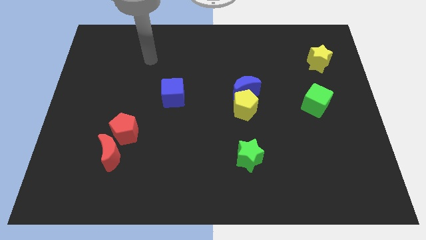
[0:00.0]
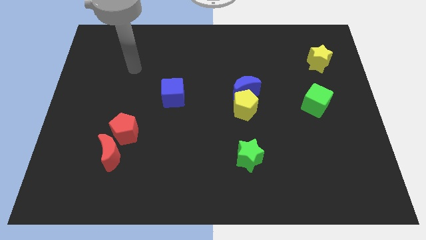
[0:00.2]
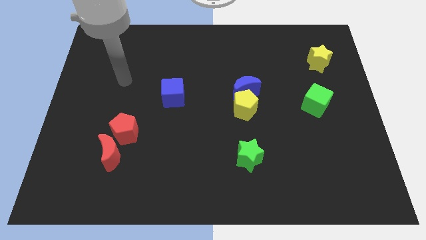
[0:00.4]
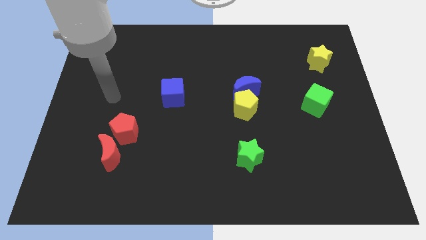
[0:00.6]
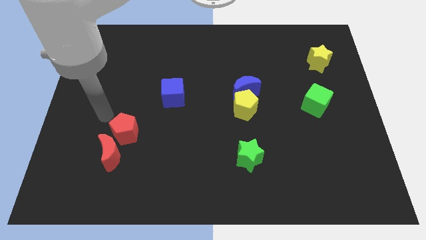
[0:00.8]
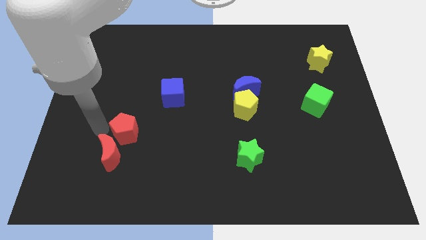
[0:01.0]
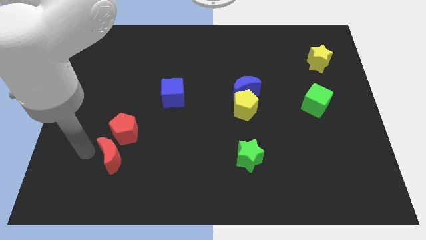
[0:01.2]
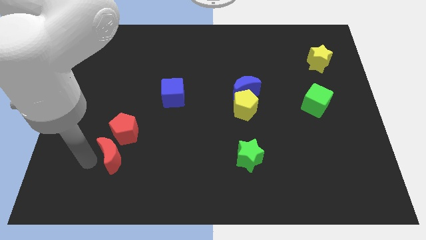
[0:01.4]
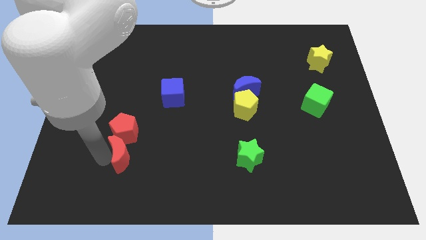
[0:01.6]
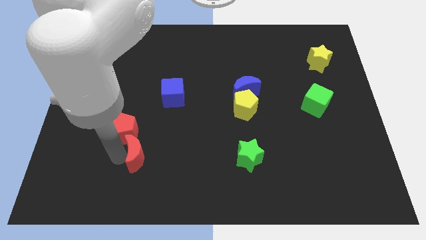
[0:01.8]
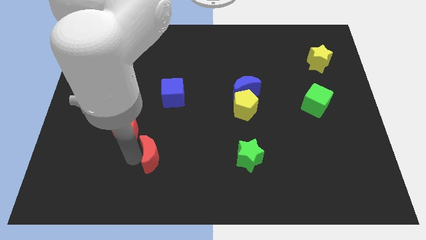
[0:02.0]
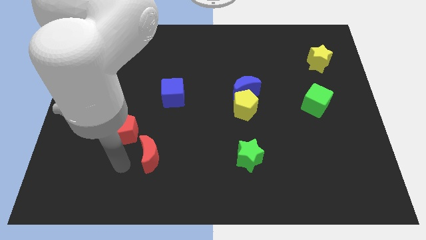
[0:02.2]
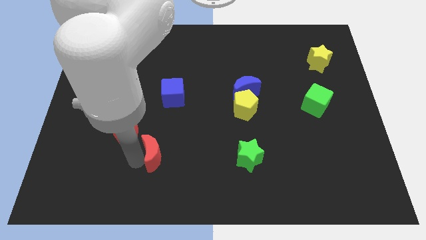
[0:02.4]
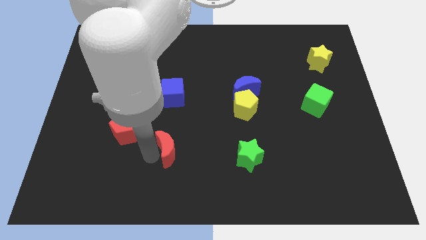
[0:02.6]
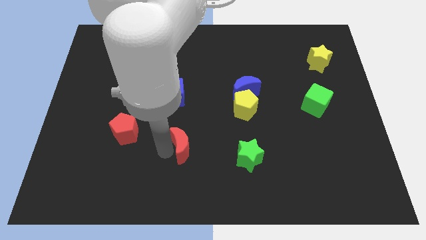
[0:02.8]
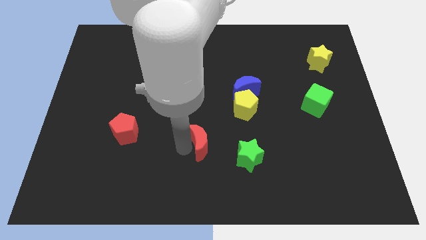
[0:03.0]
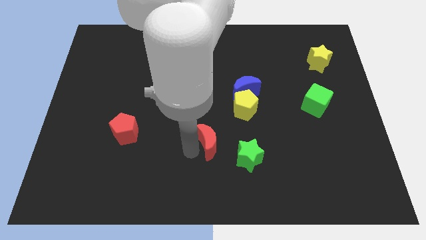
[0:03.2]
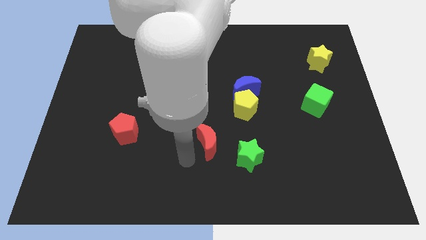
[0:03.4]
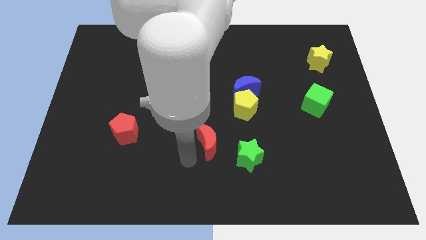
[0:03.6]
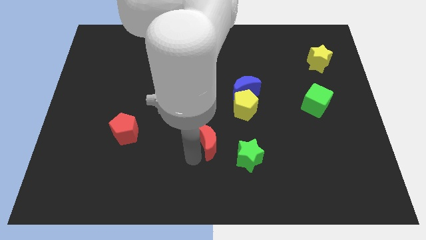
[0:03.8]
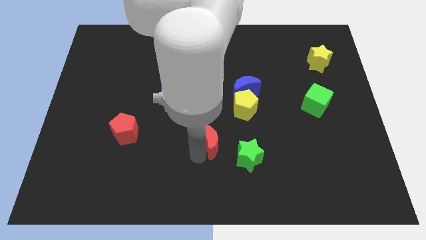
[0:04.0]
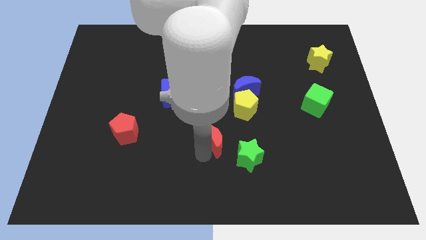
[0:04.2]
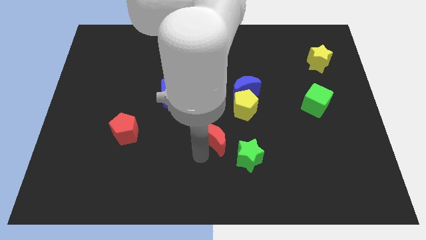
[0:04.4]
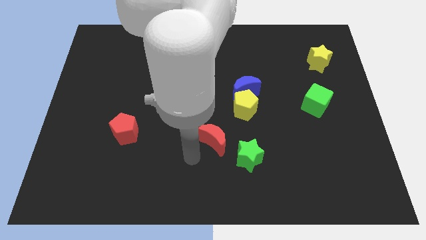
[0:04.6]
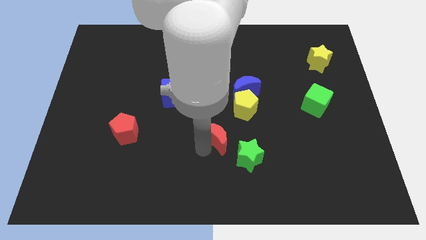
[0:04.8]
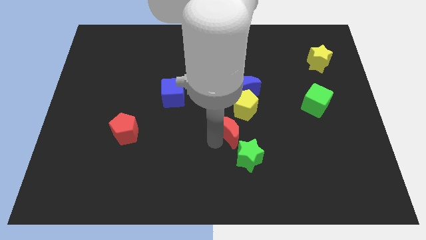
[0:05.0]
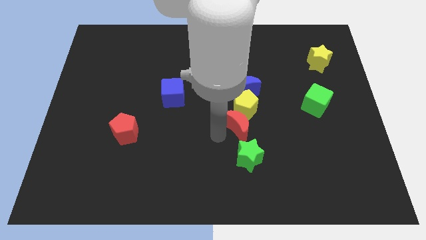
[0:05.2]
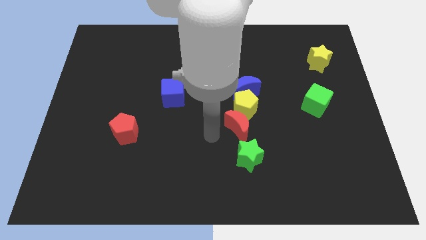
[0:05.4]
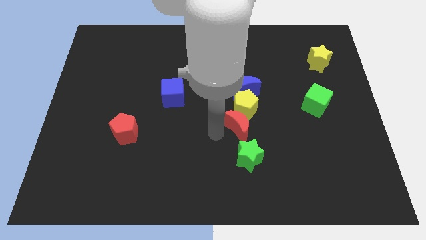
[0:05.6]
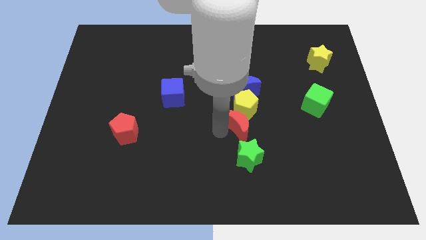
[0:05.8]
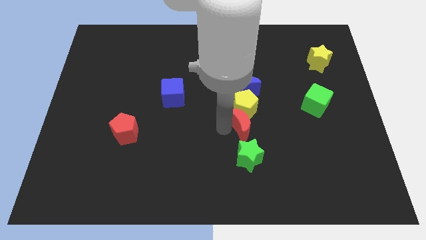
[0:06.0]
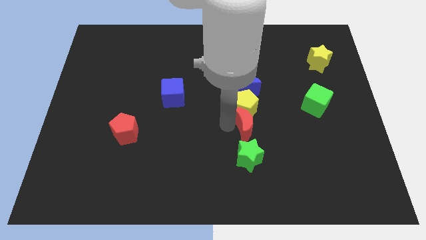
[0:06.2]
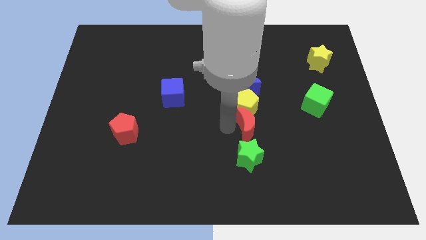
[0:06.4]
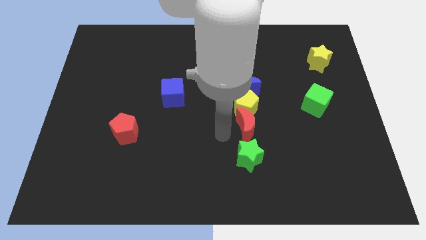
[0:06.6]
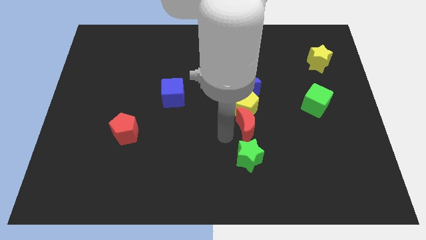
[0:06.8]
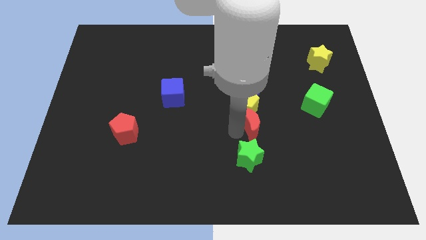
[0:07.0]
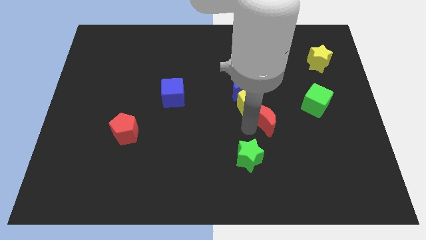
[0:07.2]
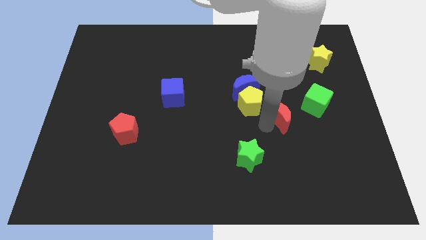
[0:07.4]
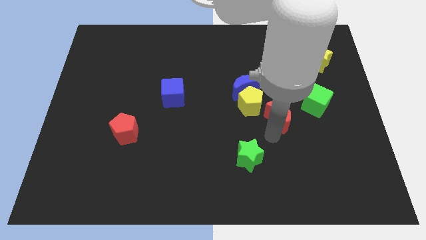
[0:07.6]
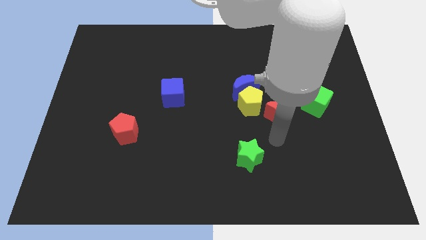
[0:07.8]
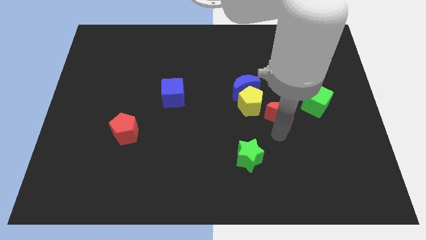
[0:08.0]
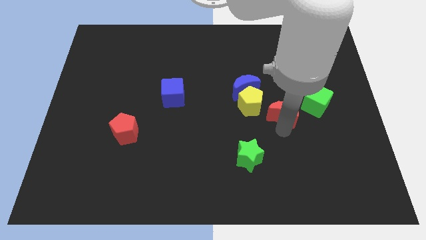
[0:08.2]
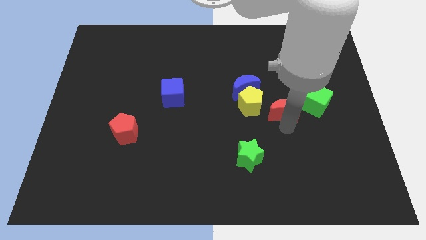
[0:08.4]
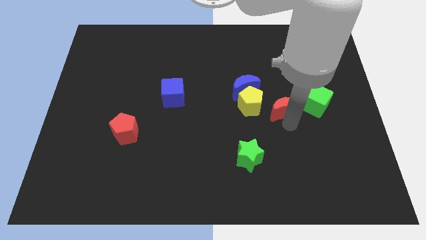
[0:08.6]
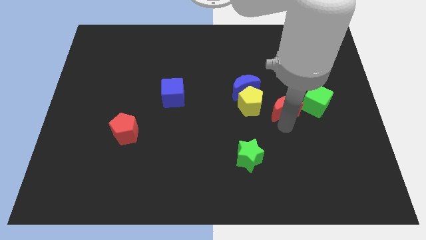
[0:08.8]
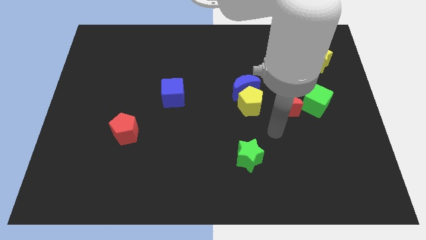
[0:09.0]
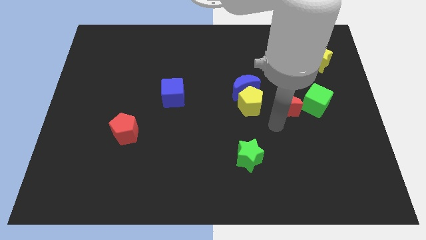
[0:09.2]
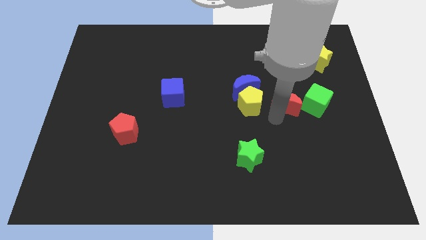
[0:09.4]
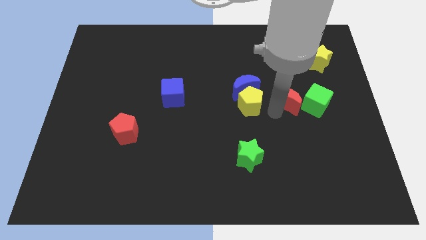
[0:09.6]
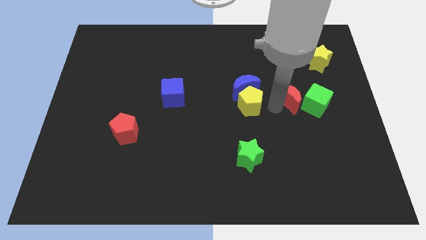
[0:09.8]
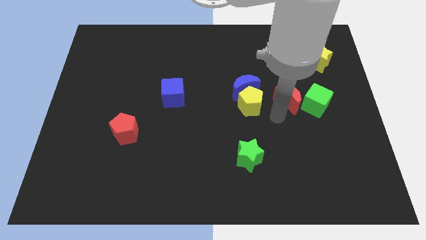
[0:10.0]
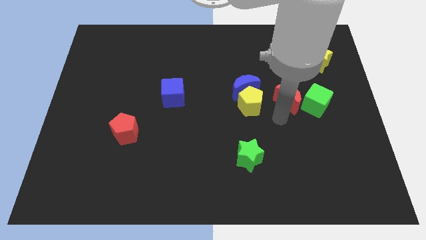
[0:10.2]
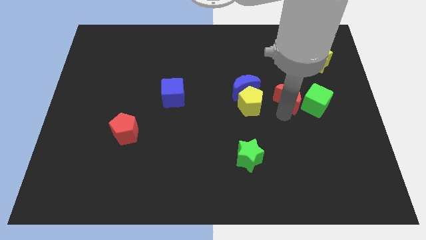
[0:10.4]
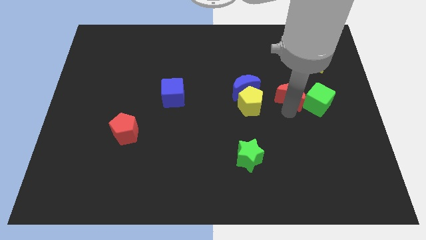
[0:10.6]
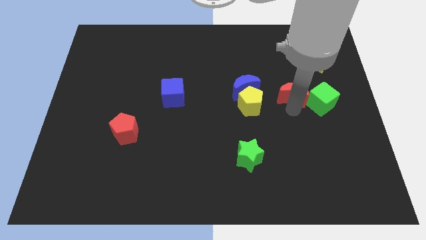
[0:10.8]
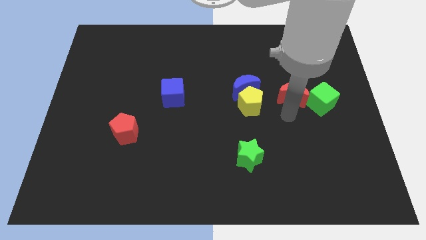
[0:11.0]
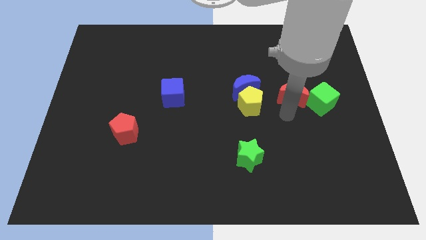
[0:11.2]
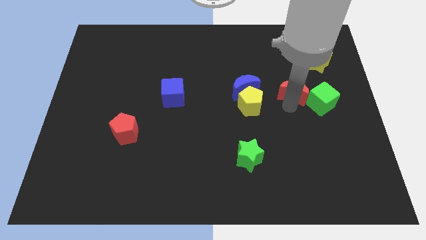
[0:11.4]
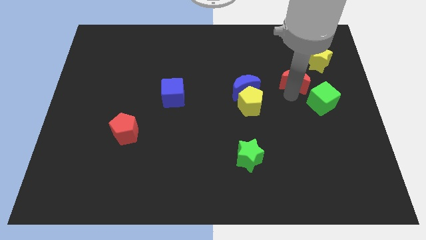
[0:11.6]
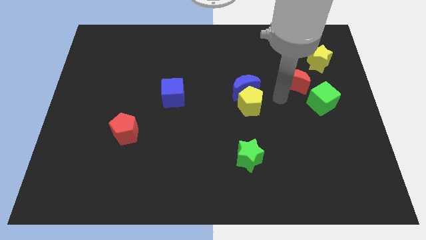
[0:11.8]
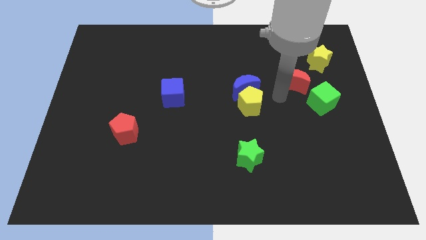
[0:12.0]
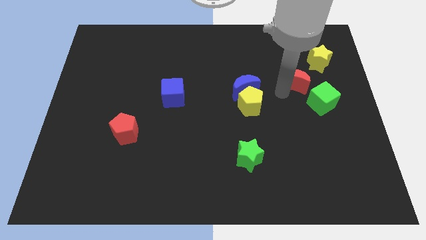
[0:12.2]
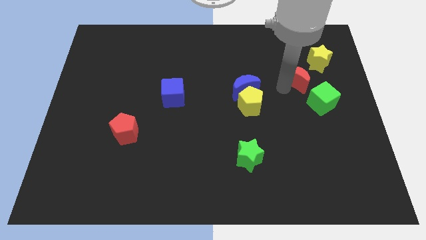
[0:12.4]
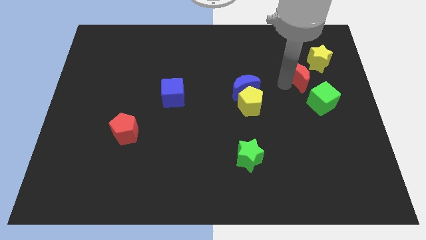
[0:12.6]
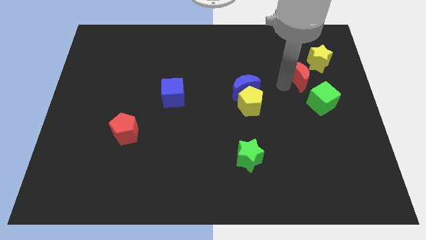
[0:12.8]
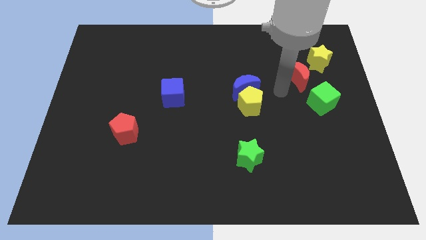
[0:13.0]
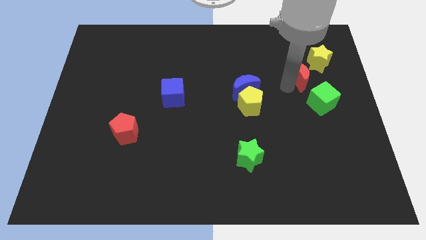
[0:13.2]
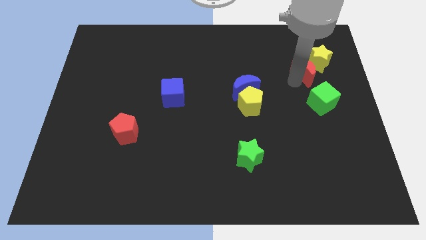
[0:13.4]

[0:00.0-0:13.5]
push the red moon to the yellow star

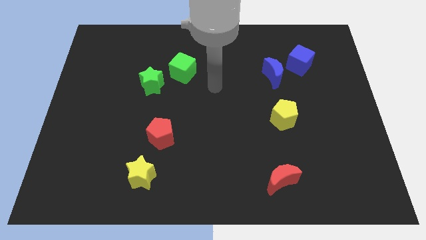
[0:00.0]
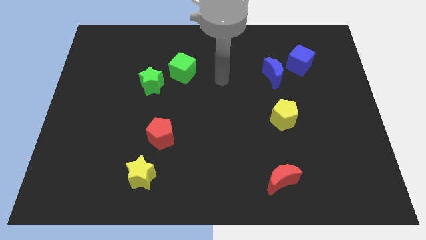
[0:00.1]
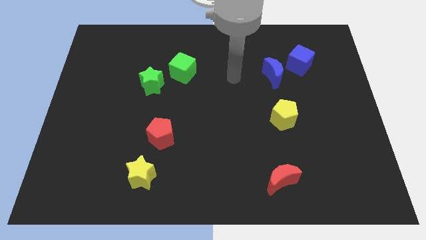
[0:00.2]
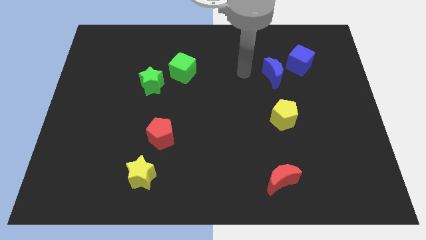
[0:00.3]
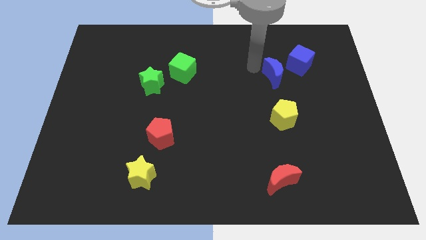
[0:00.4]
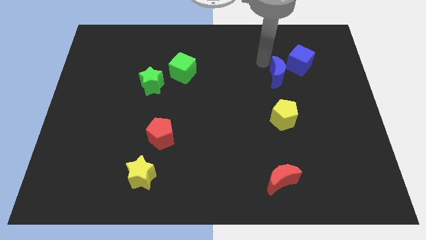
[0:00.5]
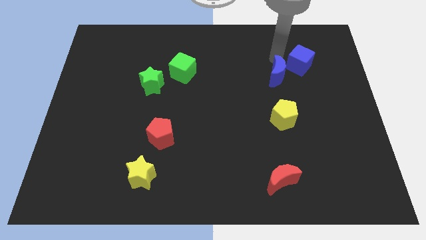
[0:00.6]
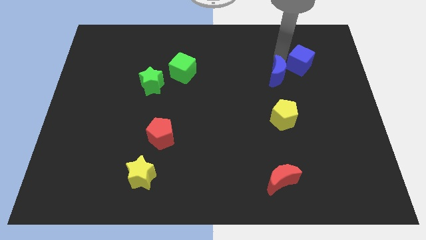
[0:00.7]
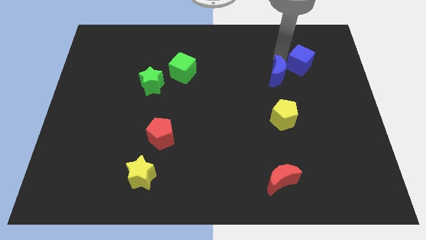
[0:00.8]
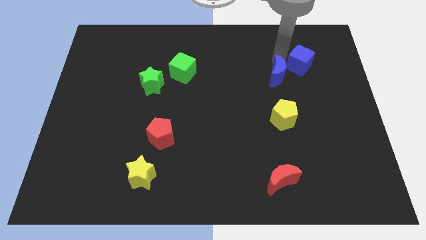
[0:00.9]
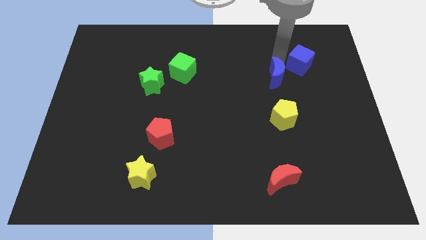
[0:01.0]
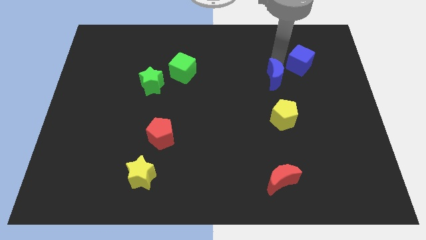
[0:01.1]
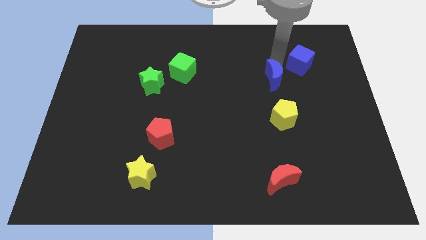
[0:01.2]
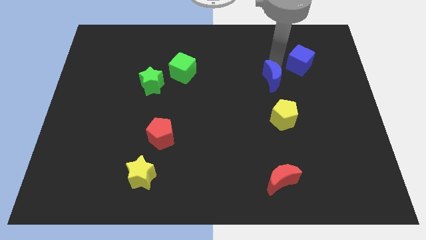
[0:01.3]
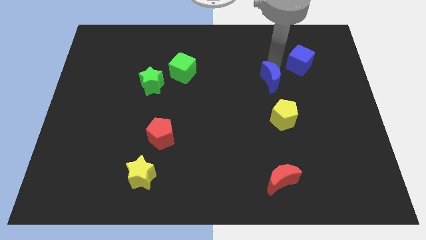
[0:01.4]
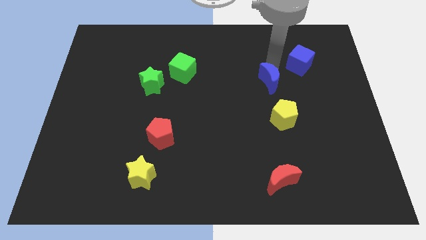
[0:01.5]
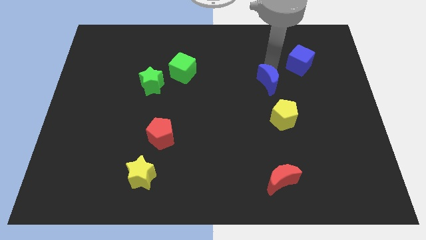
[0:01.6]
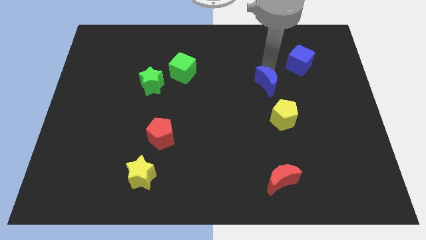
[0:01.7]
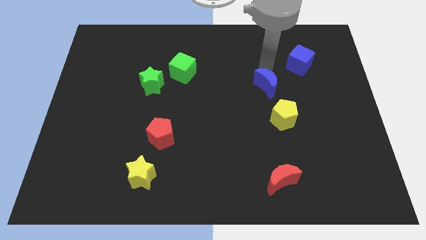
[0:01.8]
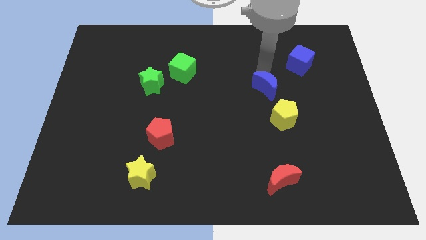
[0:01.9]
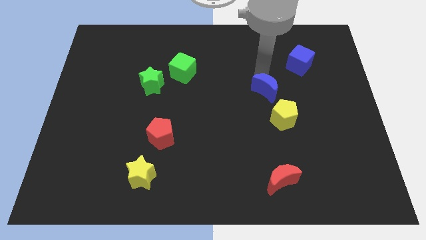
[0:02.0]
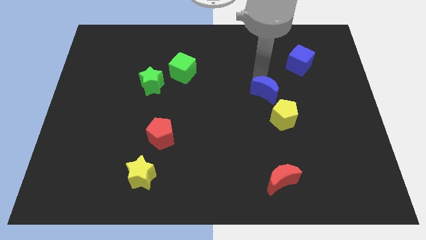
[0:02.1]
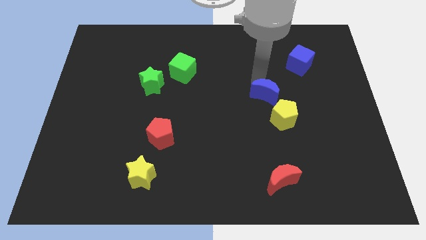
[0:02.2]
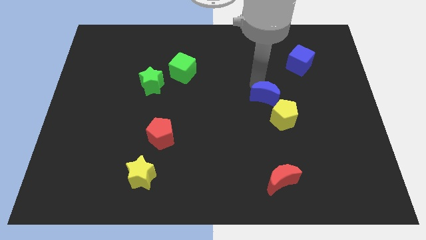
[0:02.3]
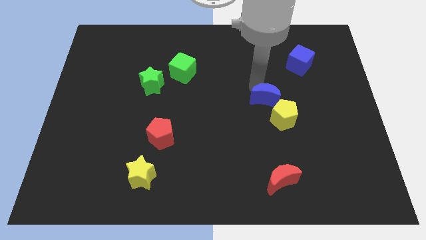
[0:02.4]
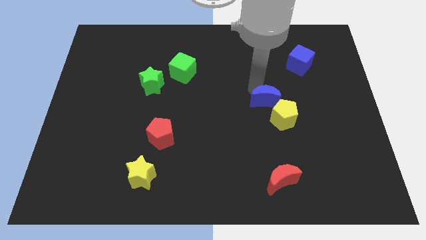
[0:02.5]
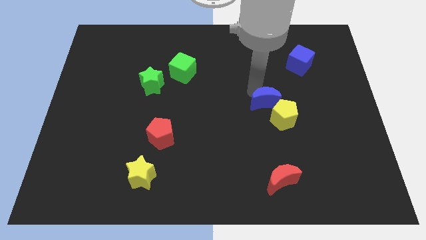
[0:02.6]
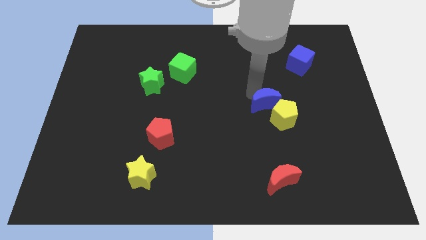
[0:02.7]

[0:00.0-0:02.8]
move the blue moon to the yellow pentagon
